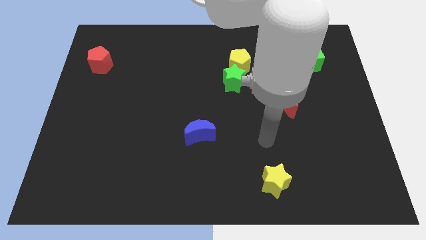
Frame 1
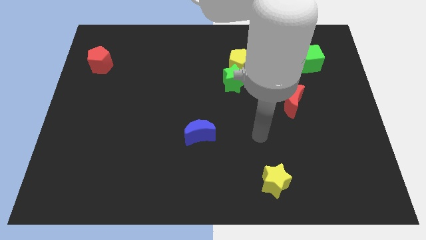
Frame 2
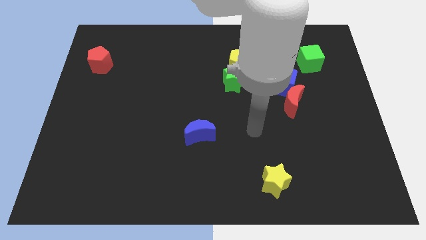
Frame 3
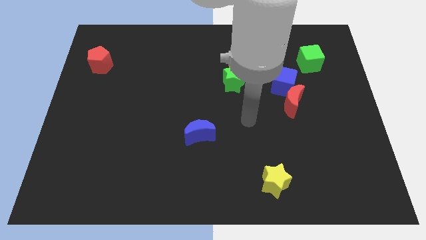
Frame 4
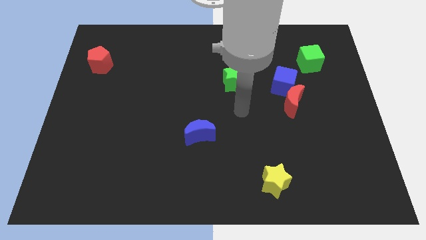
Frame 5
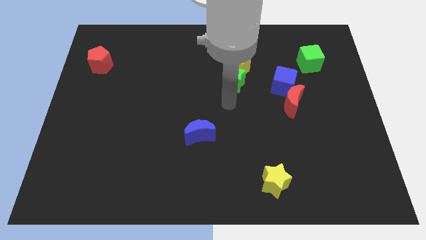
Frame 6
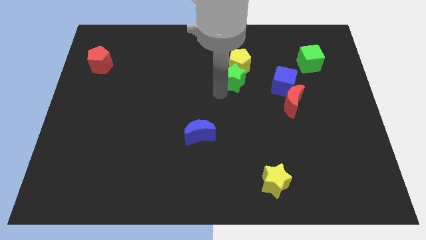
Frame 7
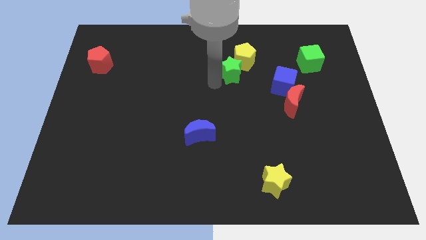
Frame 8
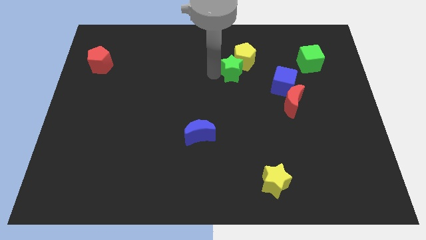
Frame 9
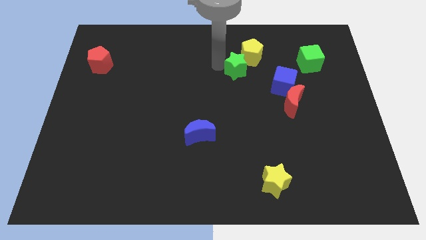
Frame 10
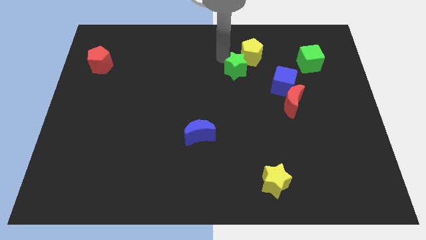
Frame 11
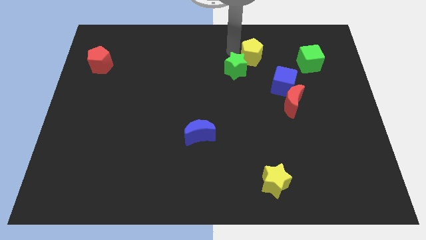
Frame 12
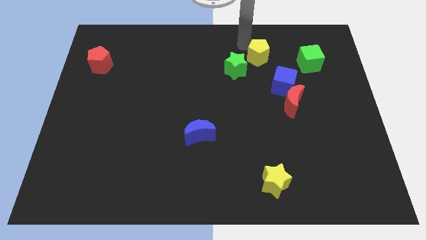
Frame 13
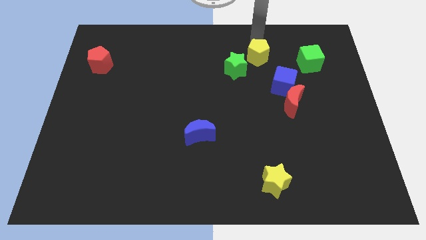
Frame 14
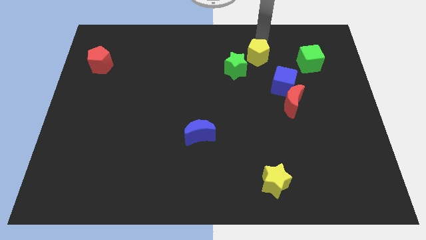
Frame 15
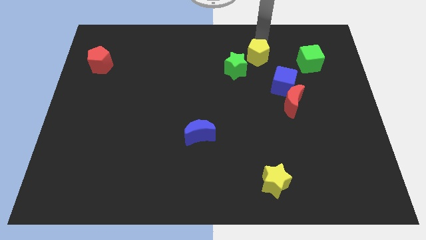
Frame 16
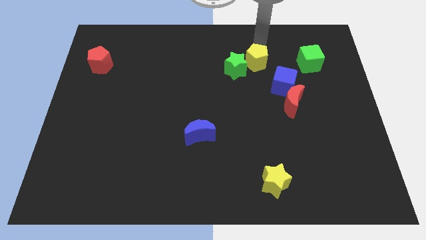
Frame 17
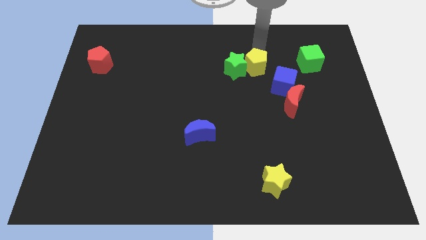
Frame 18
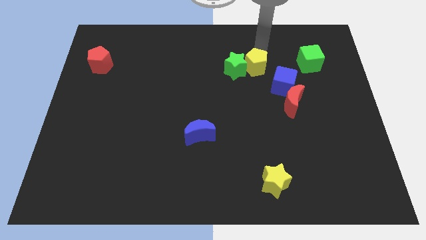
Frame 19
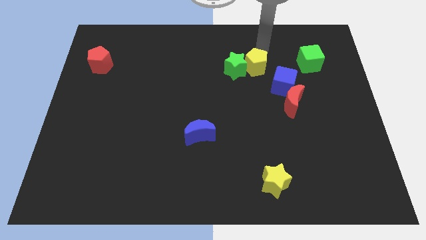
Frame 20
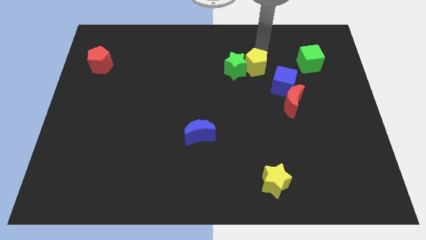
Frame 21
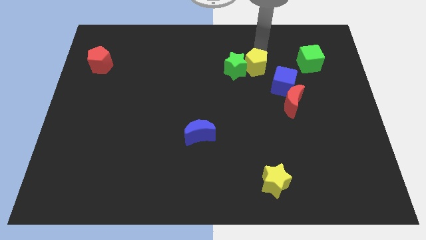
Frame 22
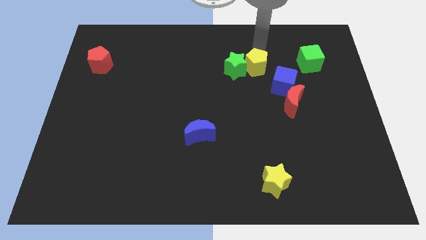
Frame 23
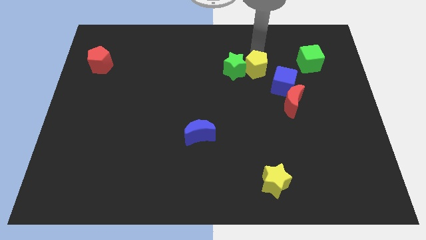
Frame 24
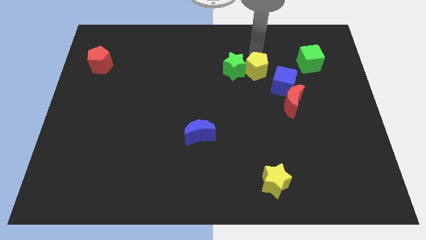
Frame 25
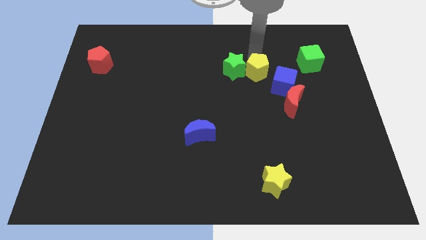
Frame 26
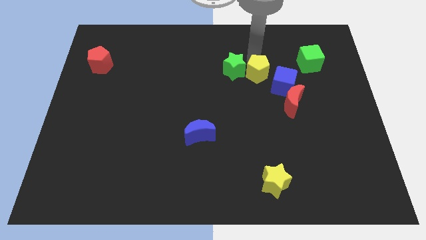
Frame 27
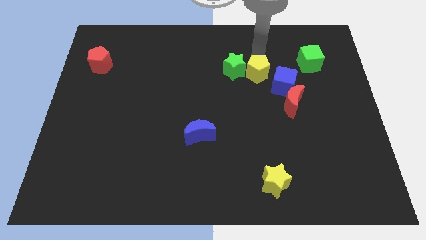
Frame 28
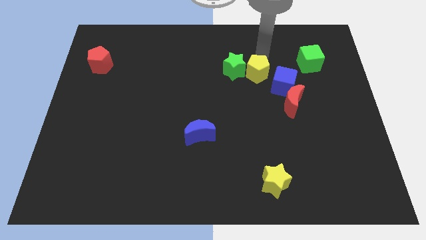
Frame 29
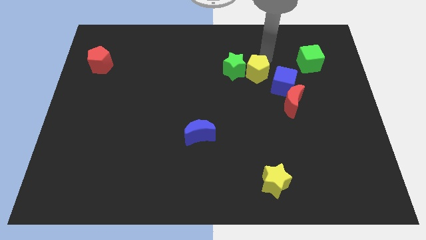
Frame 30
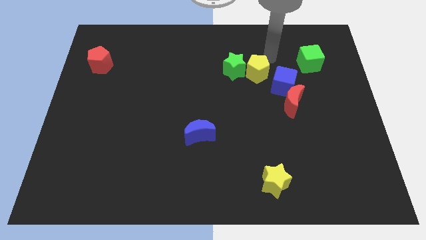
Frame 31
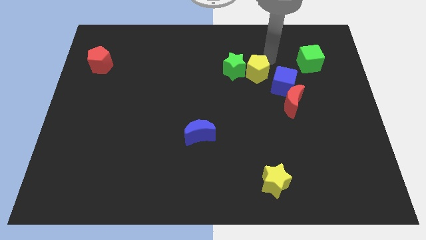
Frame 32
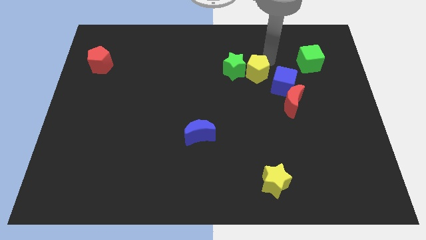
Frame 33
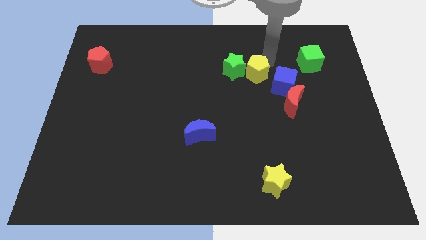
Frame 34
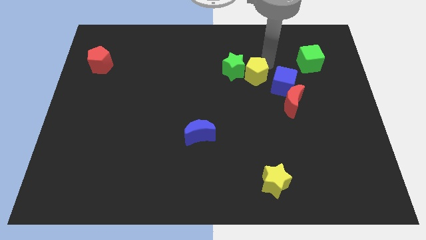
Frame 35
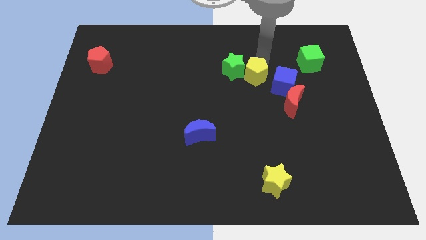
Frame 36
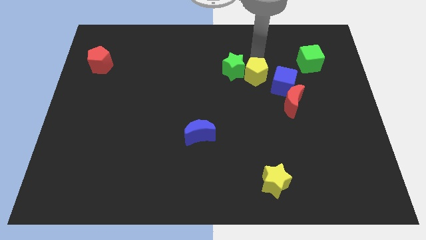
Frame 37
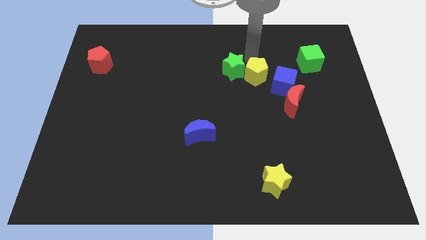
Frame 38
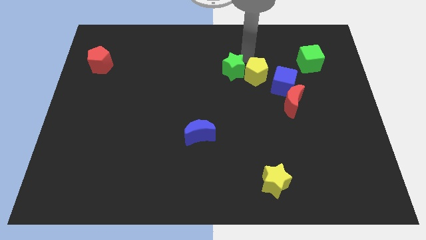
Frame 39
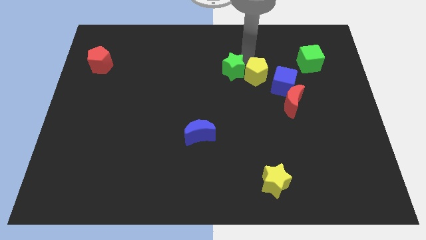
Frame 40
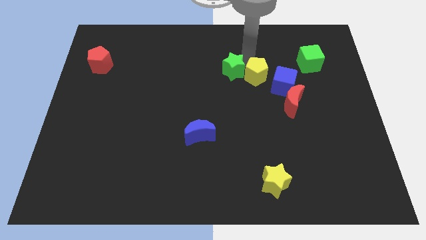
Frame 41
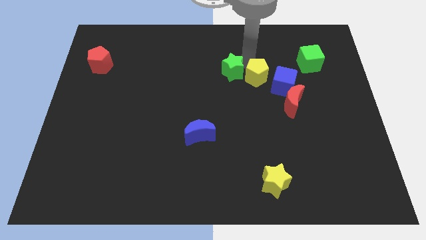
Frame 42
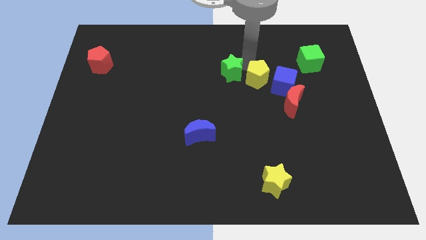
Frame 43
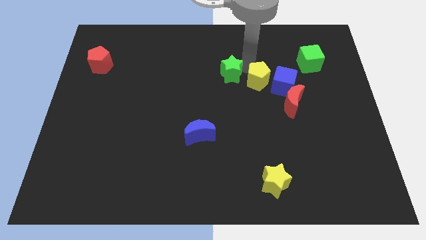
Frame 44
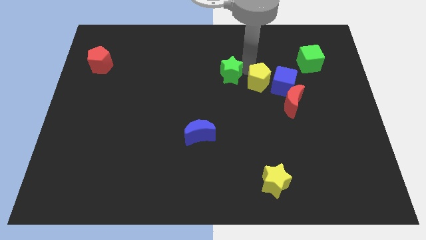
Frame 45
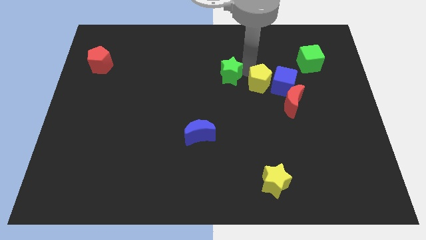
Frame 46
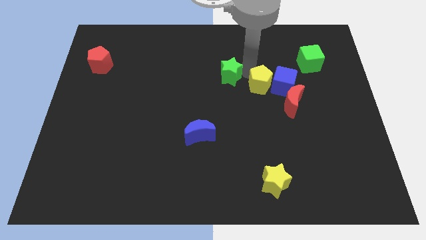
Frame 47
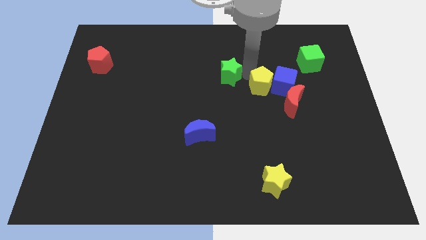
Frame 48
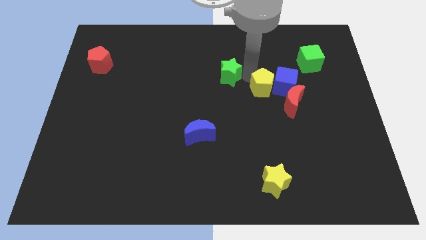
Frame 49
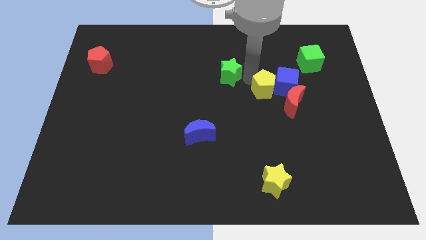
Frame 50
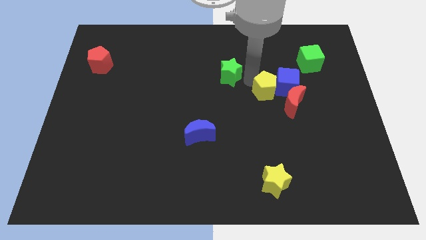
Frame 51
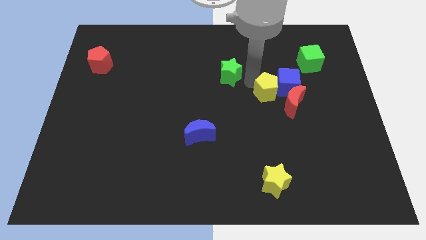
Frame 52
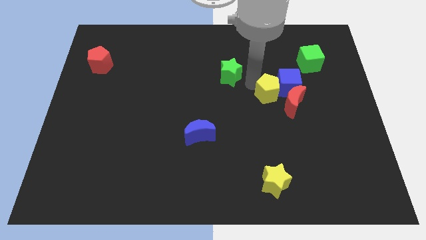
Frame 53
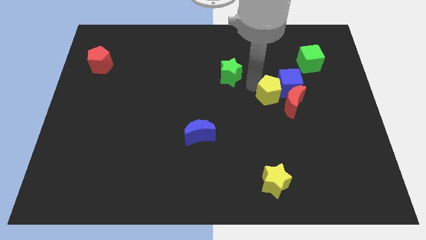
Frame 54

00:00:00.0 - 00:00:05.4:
push the yellow pentagon to the red moon

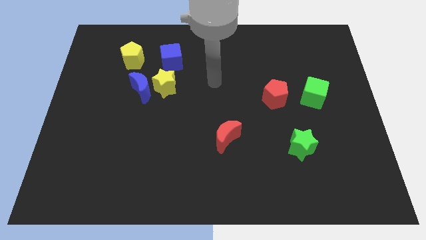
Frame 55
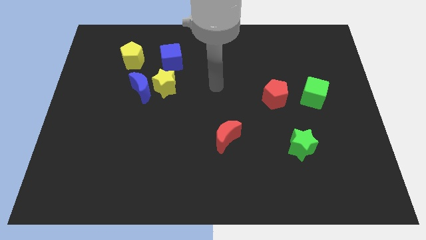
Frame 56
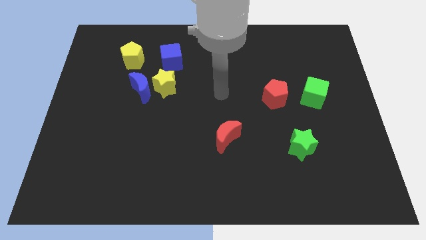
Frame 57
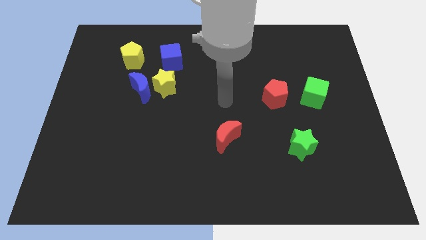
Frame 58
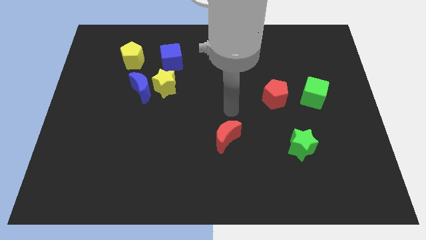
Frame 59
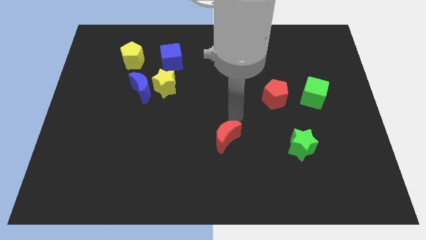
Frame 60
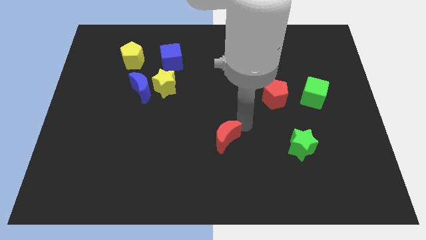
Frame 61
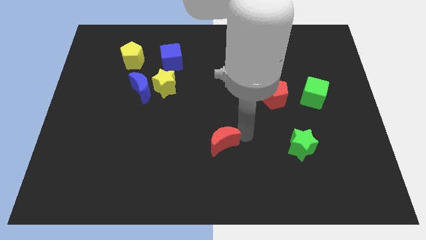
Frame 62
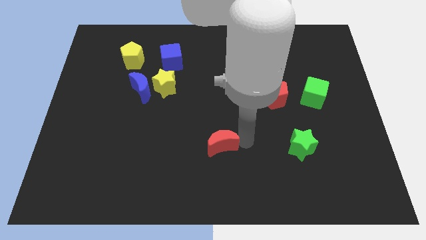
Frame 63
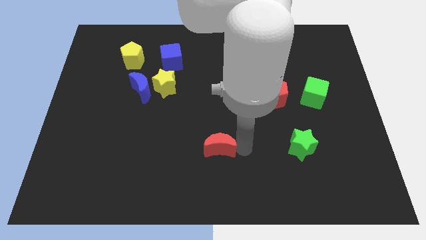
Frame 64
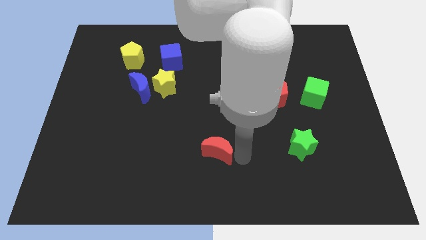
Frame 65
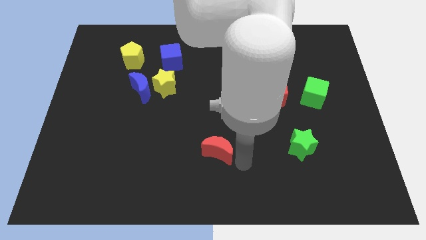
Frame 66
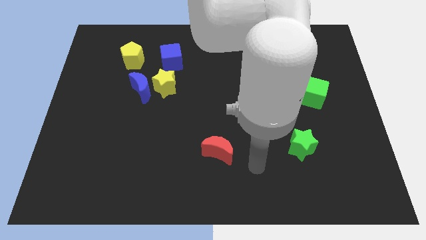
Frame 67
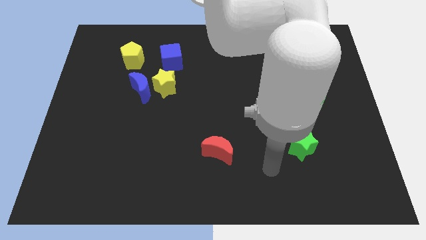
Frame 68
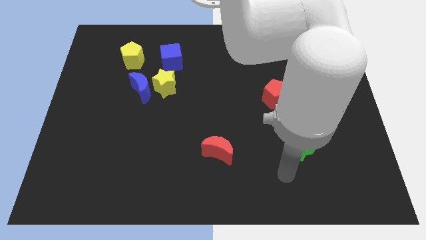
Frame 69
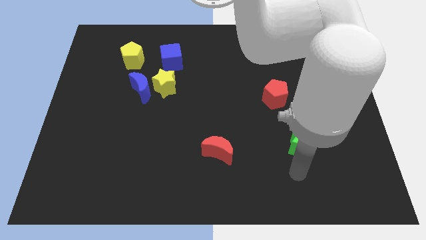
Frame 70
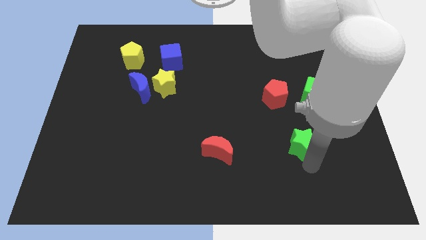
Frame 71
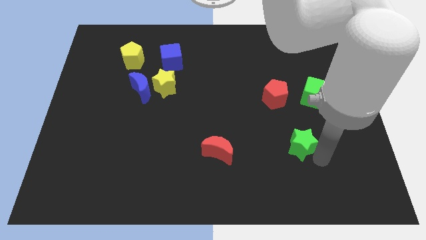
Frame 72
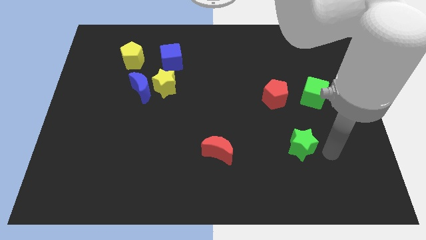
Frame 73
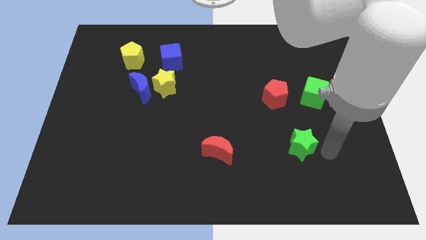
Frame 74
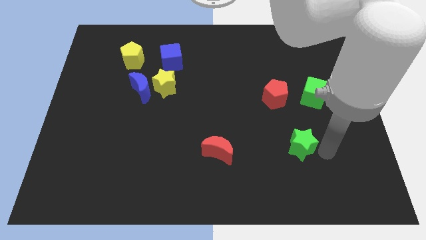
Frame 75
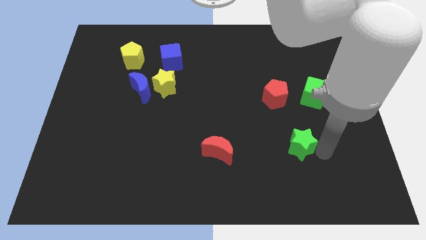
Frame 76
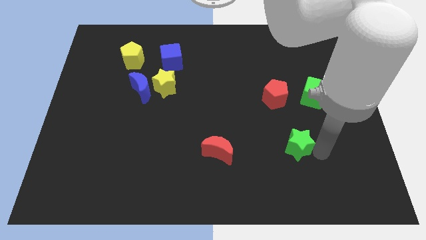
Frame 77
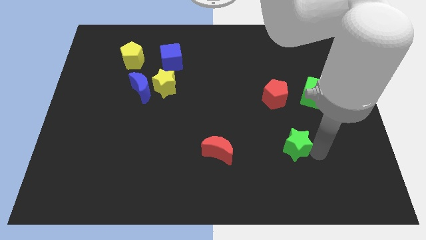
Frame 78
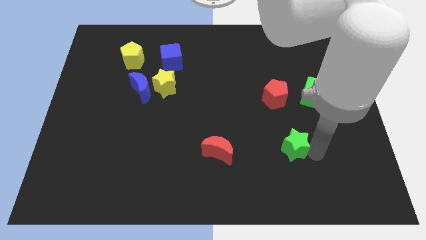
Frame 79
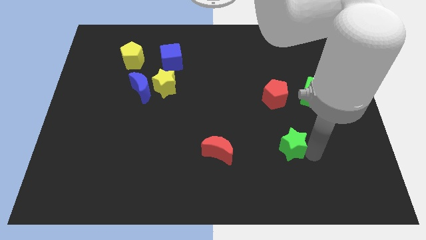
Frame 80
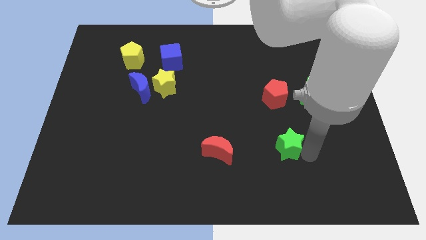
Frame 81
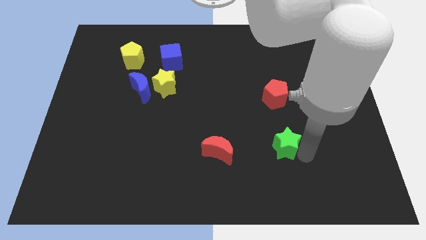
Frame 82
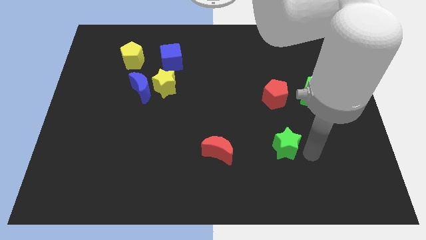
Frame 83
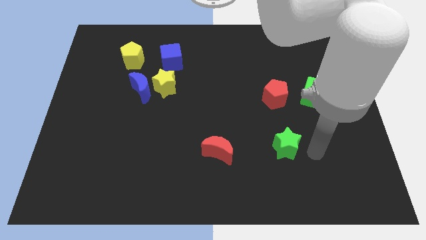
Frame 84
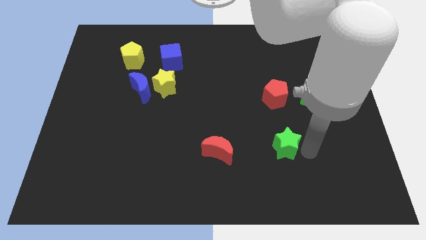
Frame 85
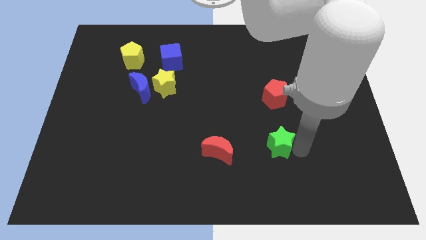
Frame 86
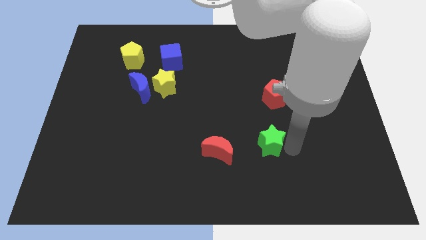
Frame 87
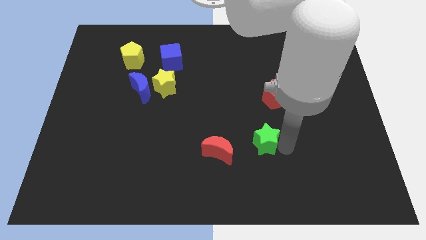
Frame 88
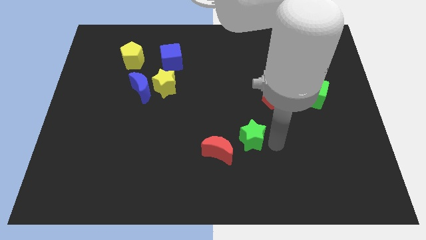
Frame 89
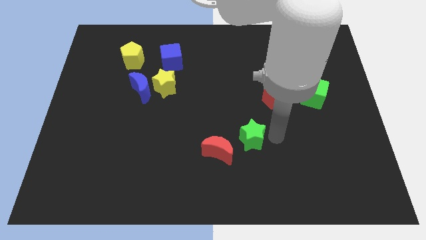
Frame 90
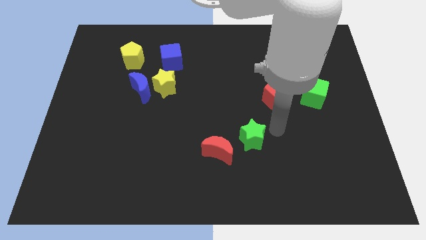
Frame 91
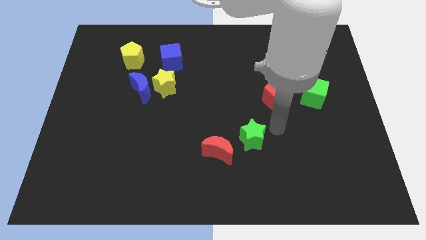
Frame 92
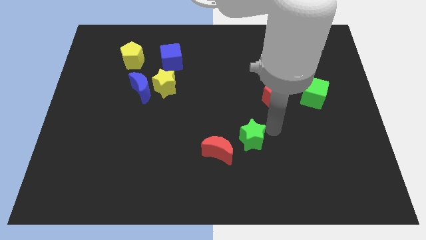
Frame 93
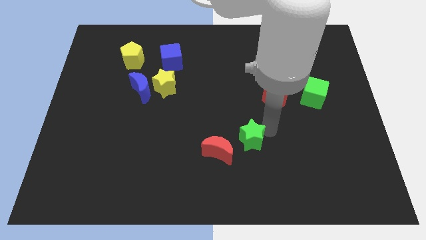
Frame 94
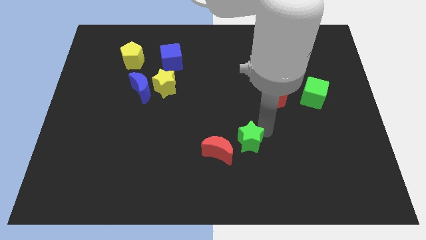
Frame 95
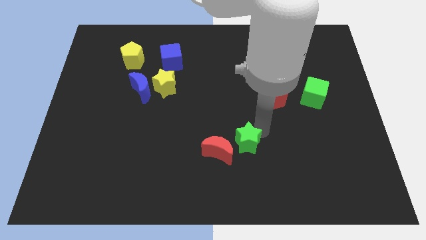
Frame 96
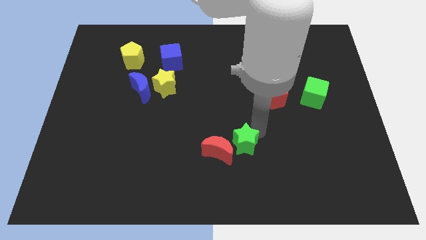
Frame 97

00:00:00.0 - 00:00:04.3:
slide the green star close to the red moon
